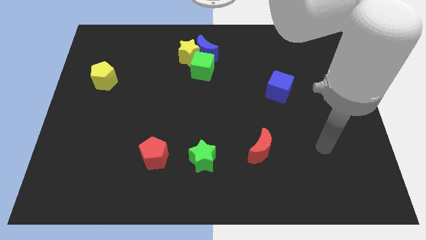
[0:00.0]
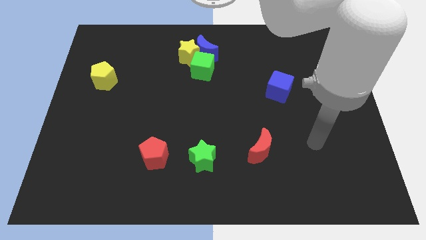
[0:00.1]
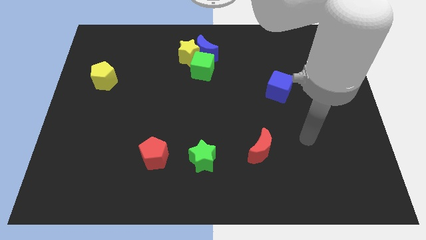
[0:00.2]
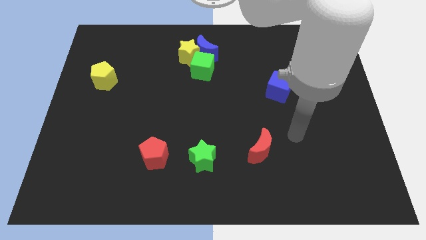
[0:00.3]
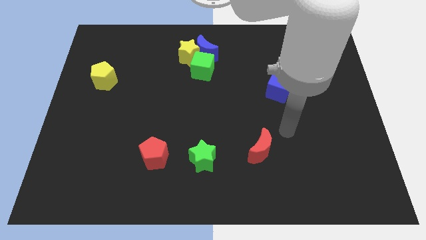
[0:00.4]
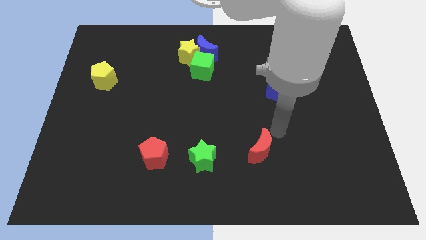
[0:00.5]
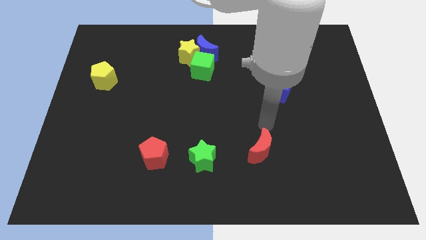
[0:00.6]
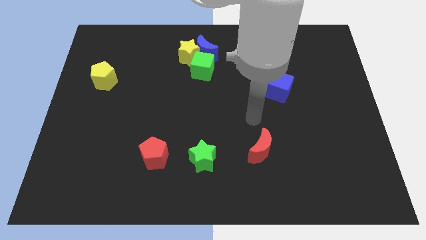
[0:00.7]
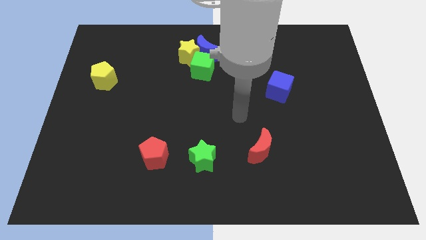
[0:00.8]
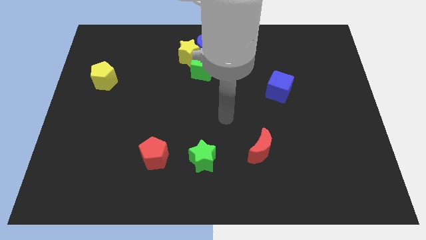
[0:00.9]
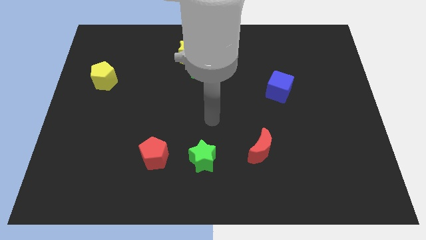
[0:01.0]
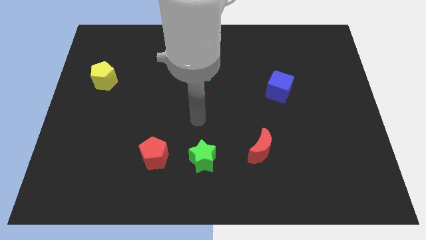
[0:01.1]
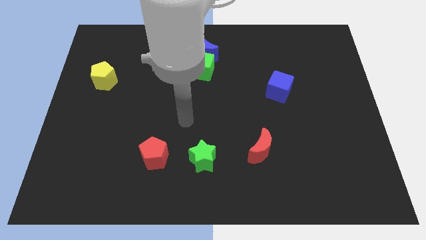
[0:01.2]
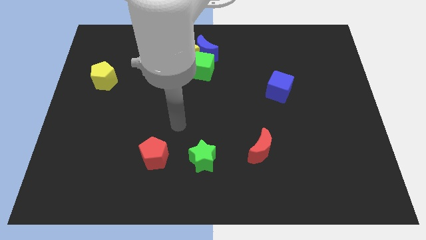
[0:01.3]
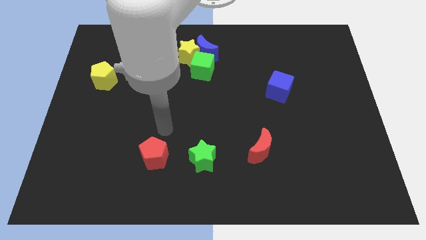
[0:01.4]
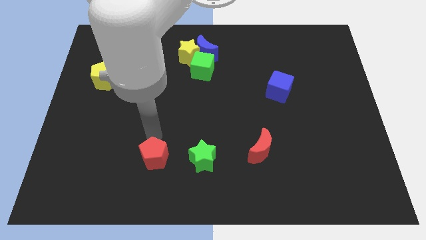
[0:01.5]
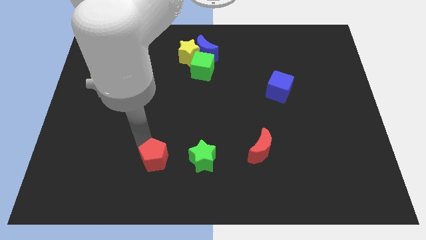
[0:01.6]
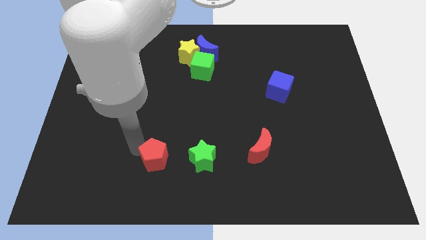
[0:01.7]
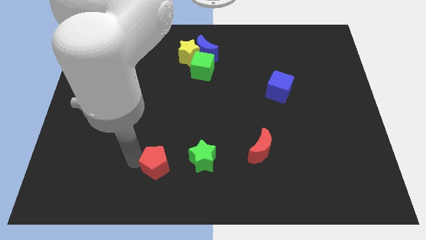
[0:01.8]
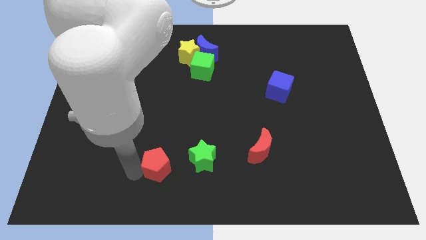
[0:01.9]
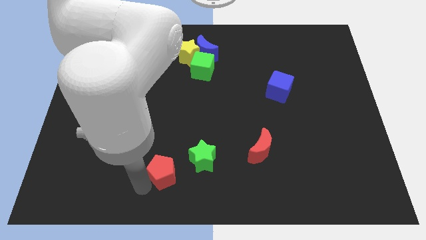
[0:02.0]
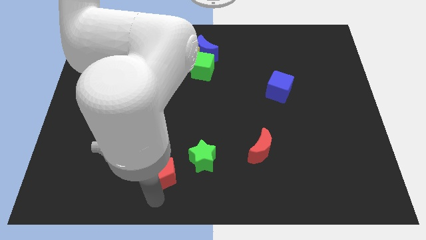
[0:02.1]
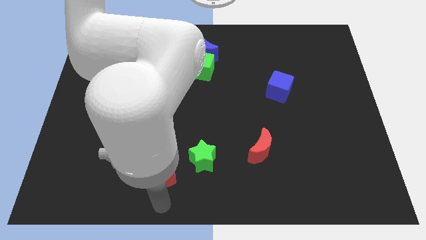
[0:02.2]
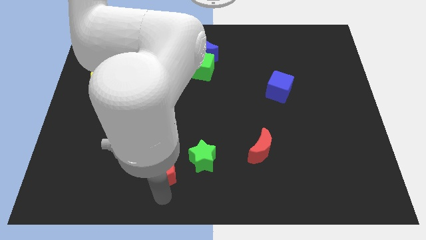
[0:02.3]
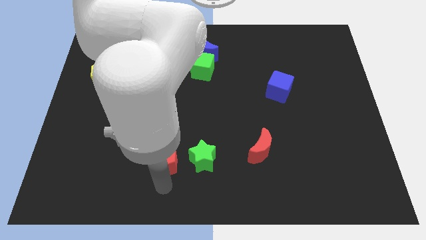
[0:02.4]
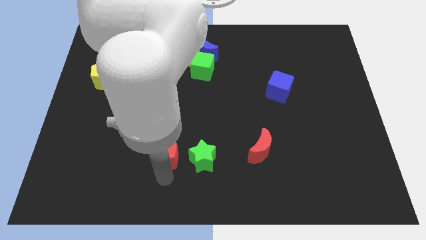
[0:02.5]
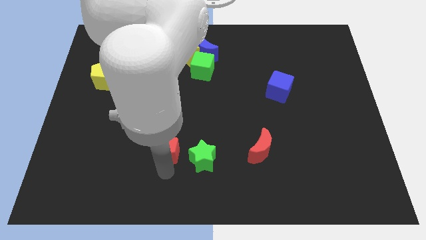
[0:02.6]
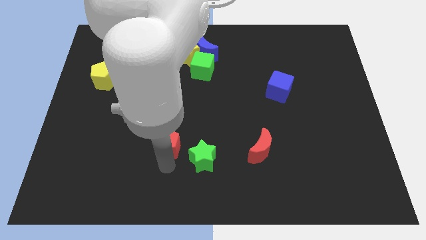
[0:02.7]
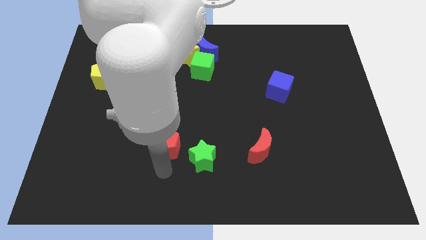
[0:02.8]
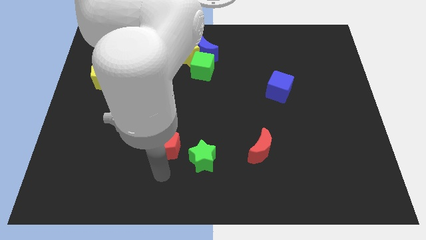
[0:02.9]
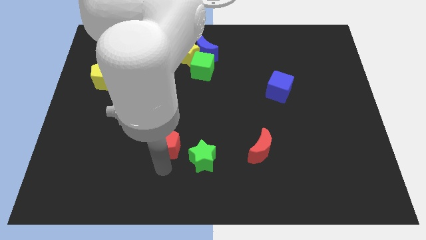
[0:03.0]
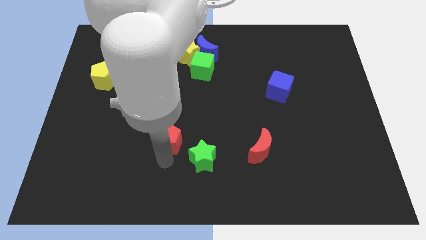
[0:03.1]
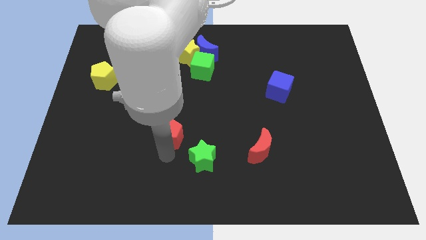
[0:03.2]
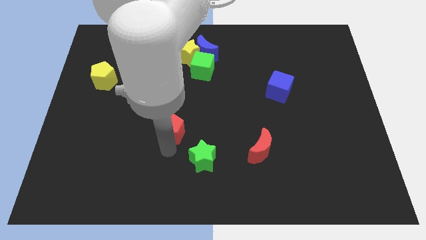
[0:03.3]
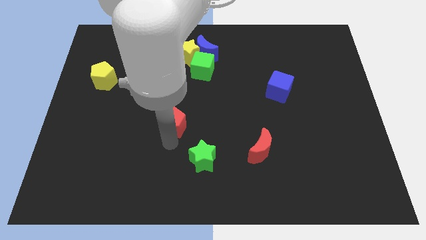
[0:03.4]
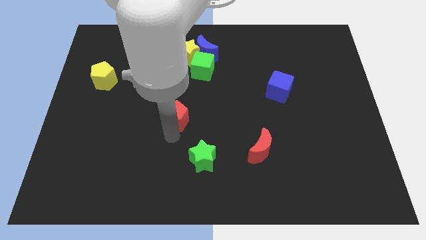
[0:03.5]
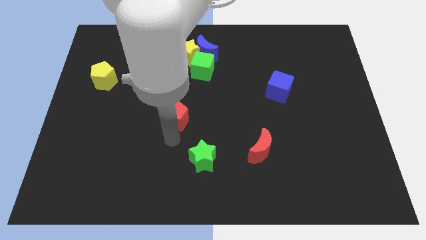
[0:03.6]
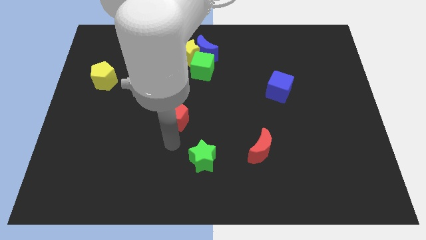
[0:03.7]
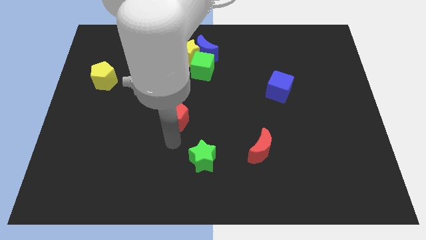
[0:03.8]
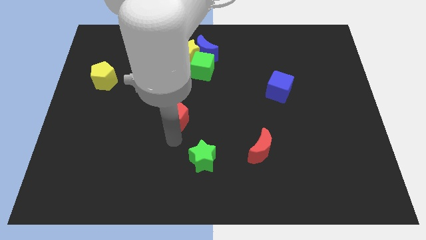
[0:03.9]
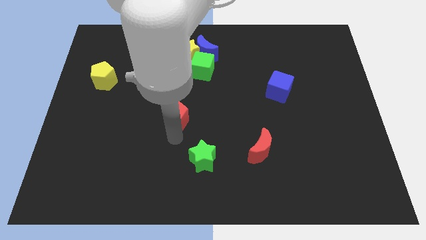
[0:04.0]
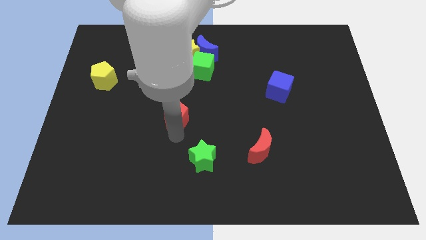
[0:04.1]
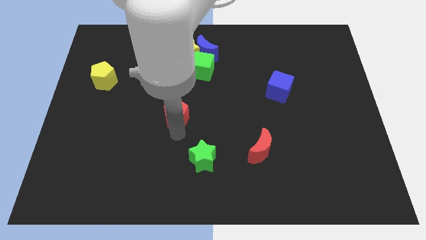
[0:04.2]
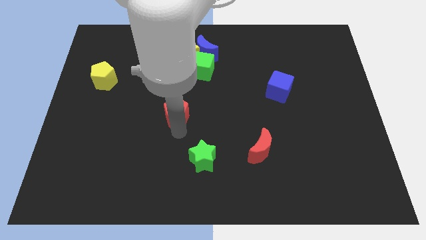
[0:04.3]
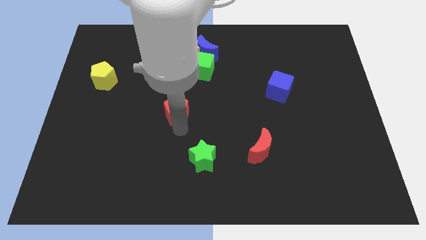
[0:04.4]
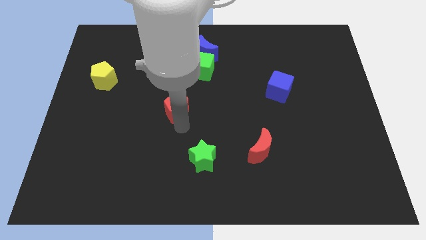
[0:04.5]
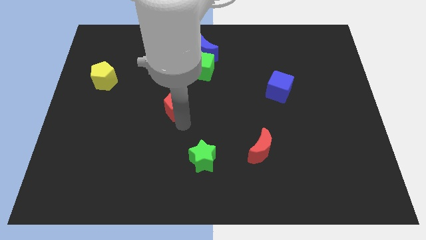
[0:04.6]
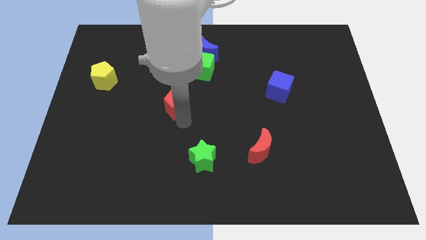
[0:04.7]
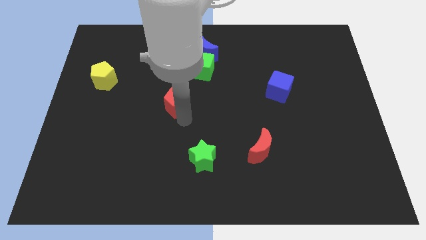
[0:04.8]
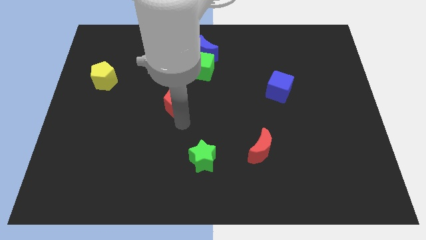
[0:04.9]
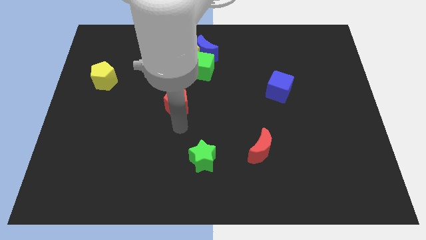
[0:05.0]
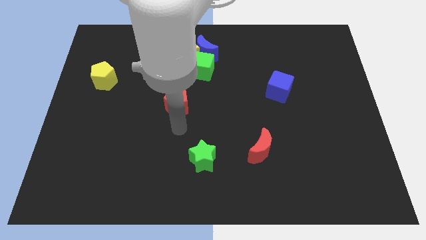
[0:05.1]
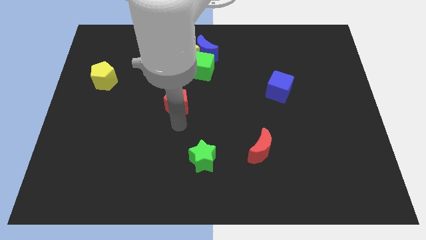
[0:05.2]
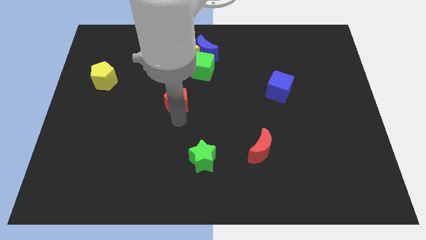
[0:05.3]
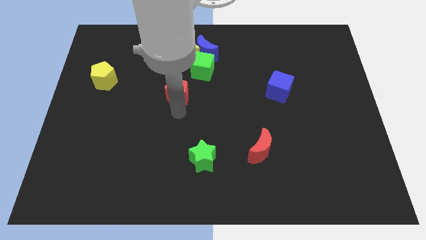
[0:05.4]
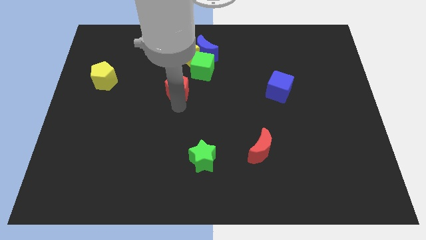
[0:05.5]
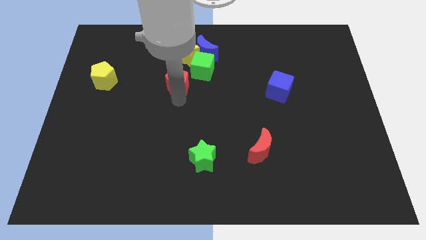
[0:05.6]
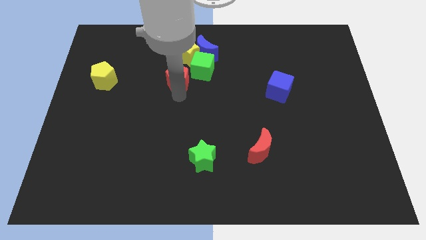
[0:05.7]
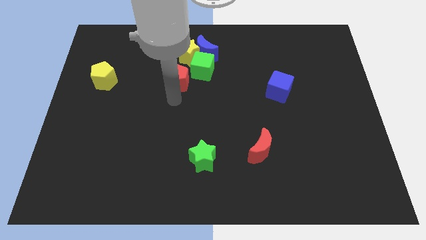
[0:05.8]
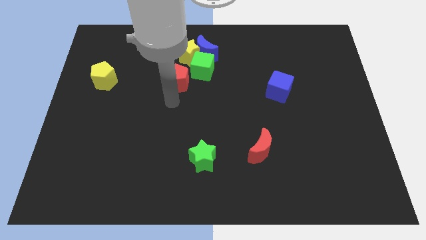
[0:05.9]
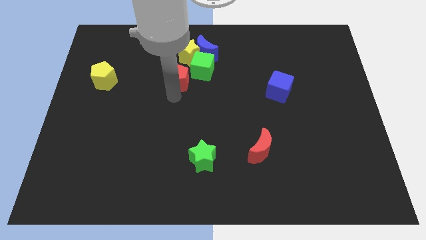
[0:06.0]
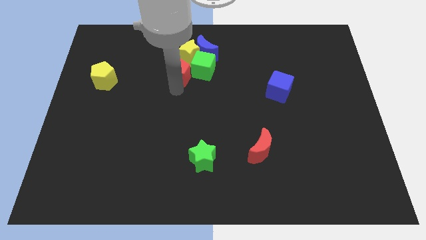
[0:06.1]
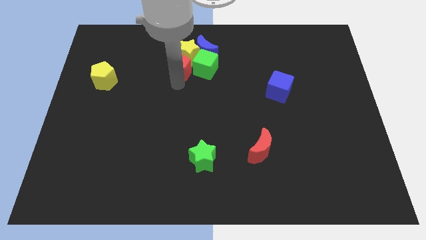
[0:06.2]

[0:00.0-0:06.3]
push the red pentagon close to the yellow star

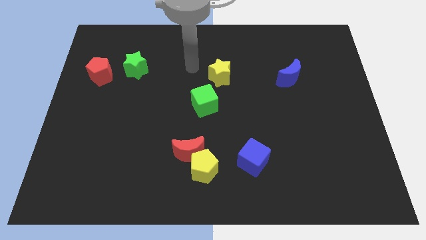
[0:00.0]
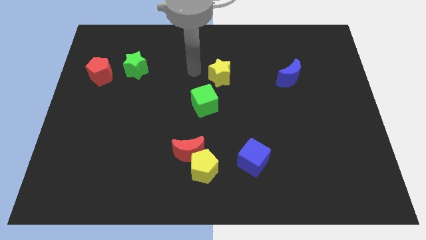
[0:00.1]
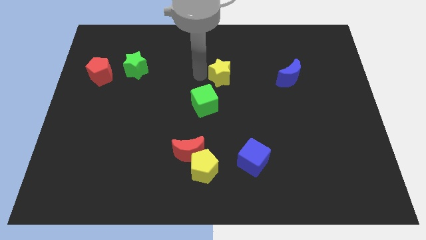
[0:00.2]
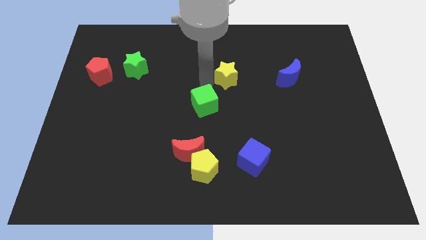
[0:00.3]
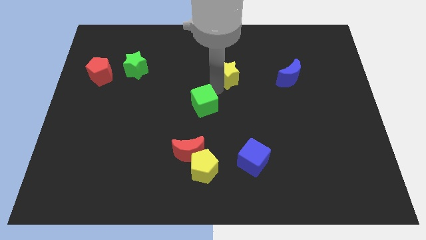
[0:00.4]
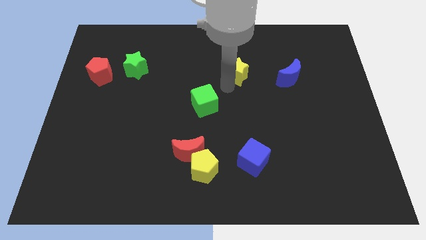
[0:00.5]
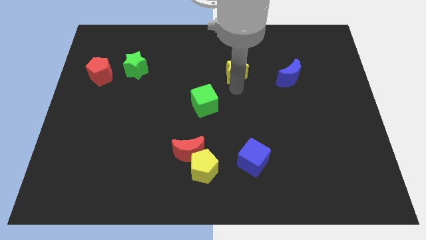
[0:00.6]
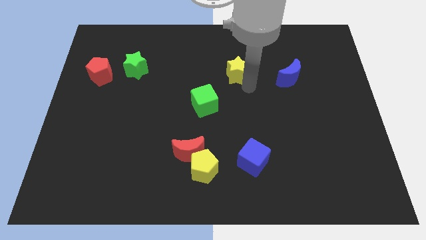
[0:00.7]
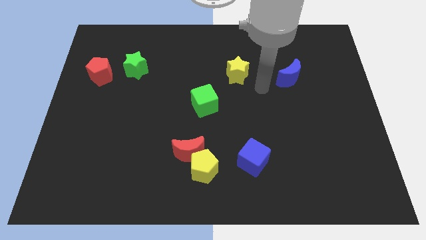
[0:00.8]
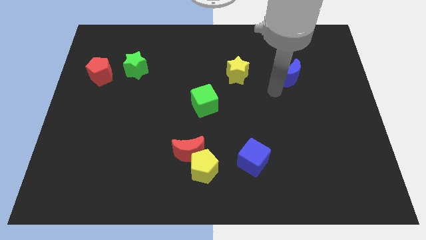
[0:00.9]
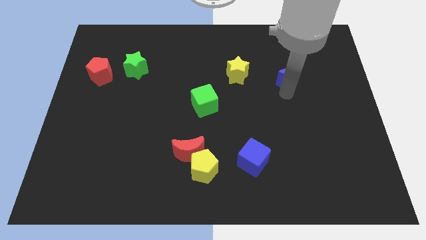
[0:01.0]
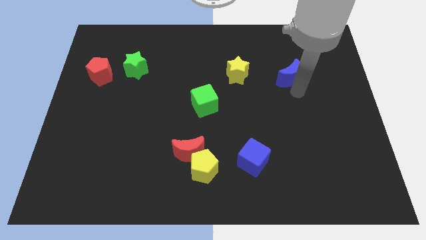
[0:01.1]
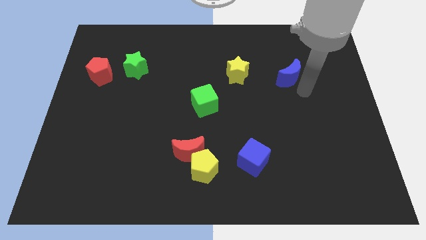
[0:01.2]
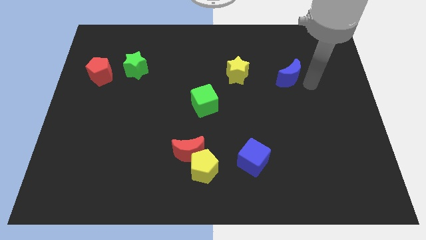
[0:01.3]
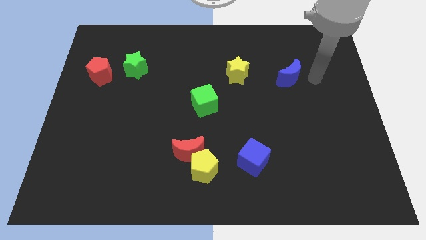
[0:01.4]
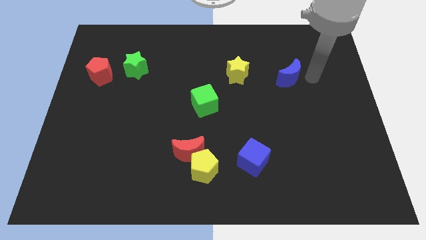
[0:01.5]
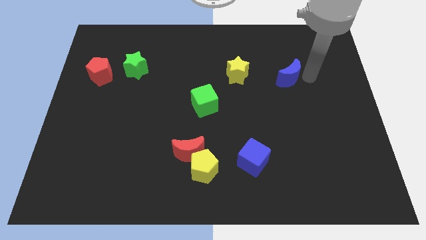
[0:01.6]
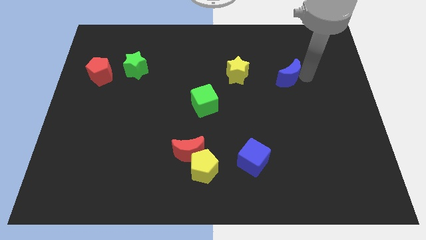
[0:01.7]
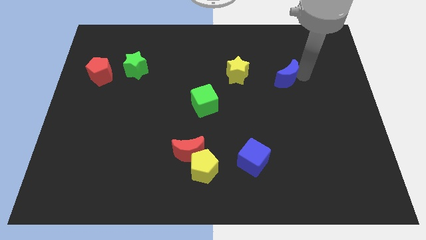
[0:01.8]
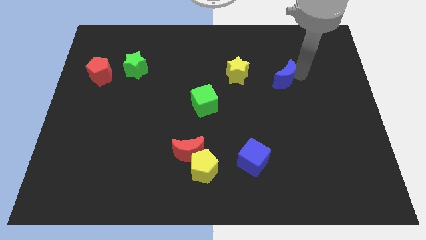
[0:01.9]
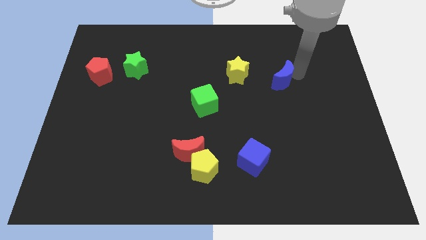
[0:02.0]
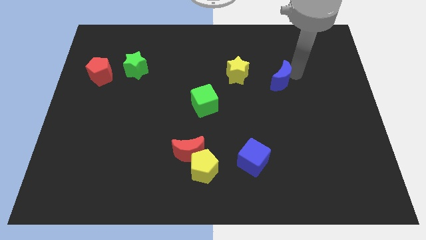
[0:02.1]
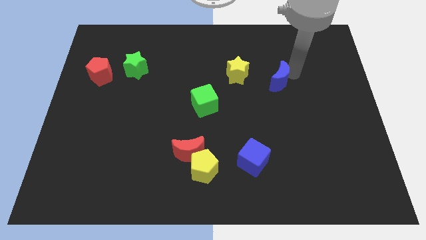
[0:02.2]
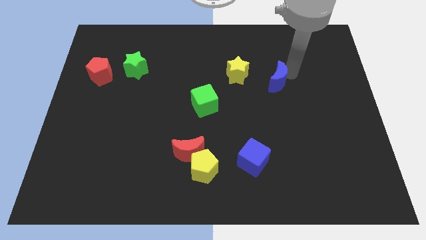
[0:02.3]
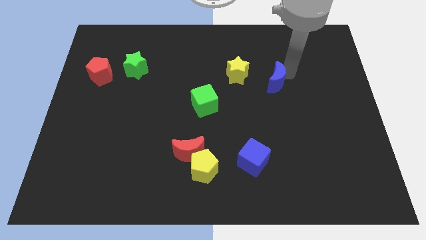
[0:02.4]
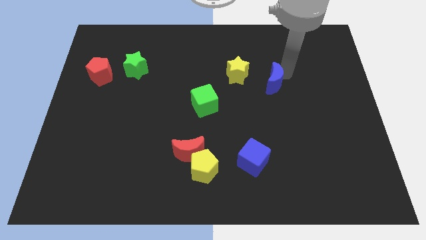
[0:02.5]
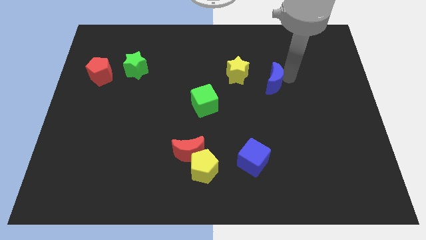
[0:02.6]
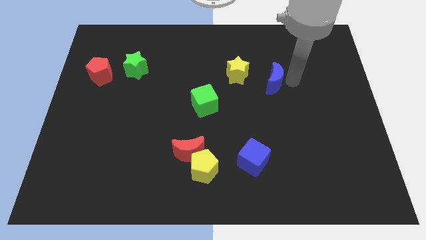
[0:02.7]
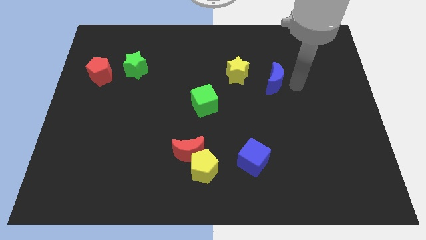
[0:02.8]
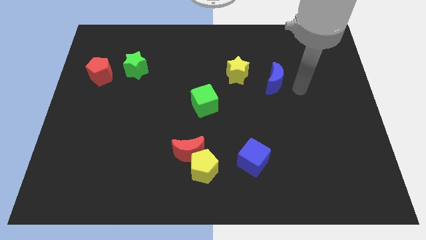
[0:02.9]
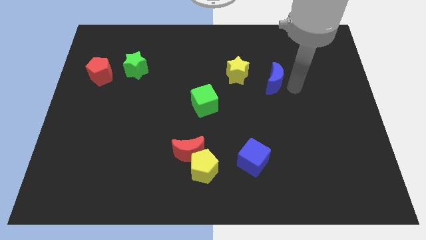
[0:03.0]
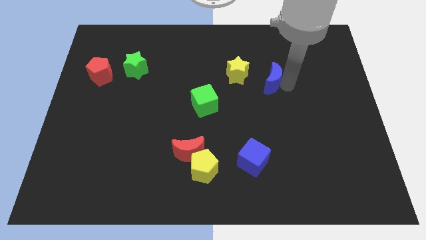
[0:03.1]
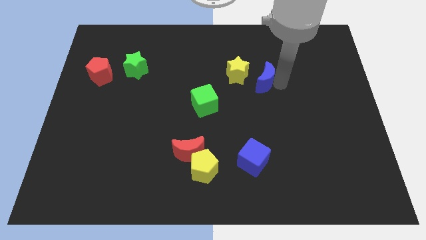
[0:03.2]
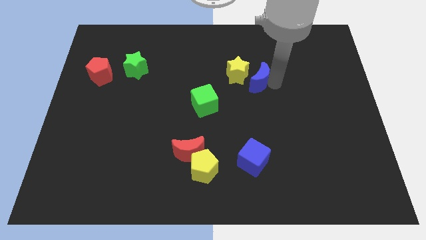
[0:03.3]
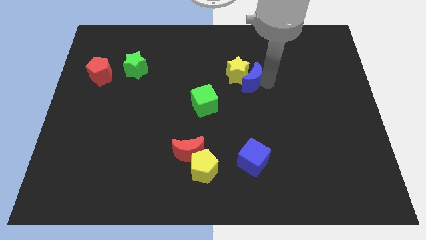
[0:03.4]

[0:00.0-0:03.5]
push the blue moon next to the yellow star
